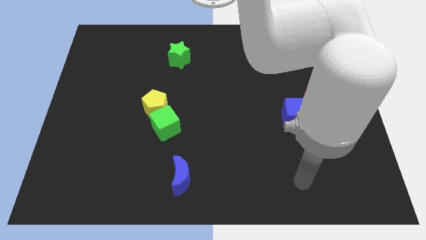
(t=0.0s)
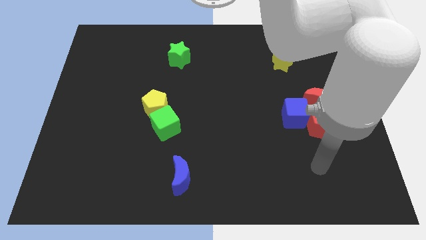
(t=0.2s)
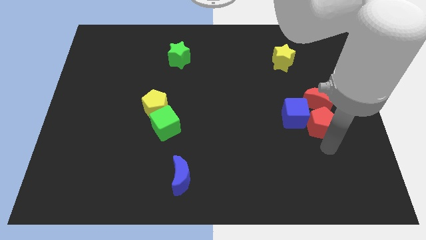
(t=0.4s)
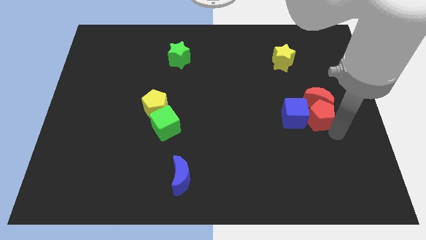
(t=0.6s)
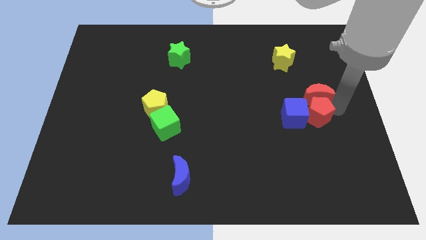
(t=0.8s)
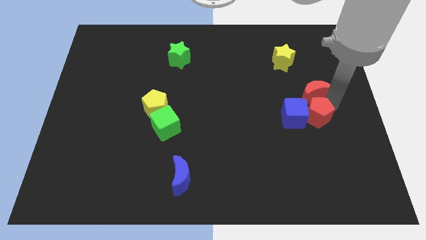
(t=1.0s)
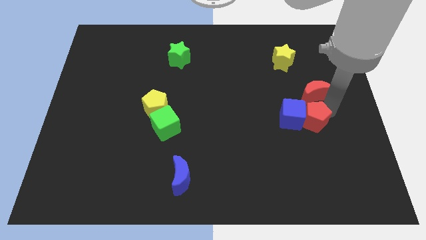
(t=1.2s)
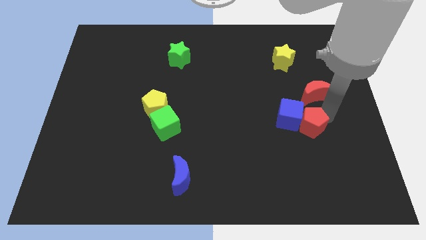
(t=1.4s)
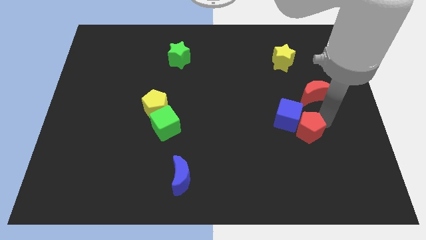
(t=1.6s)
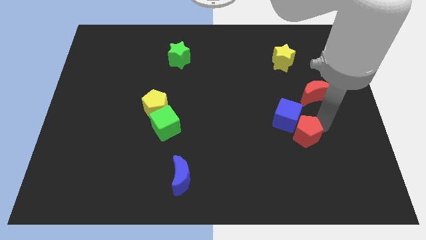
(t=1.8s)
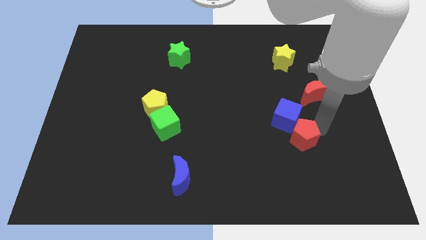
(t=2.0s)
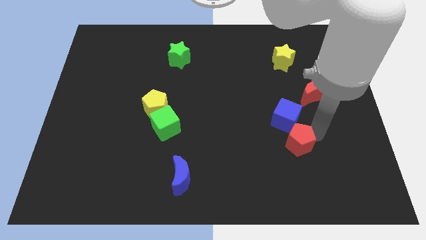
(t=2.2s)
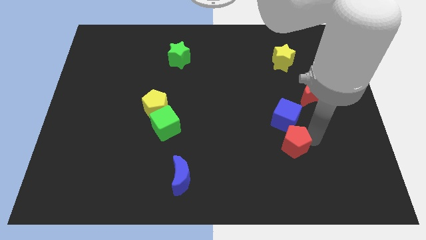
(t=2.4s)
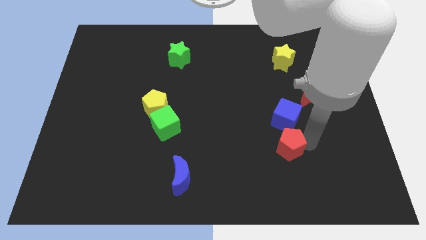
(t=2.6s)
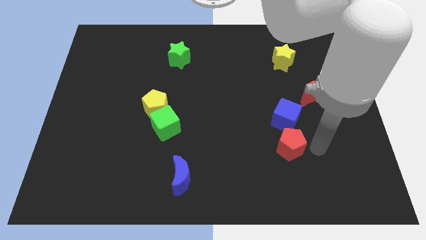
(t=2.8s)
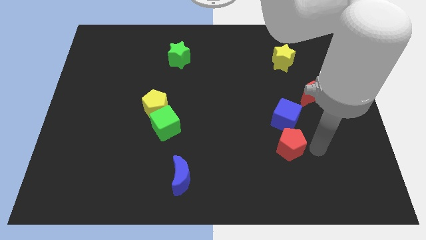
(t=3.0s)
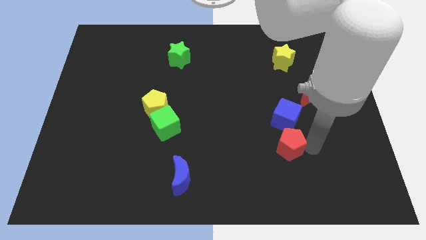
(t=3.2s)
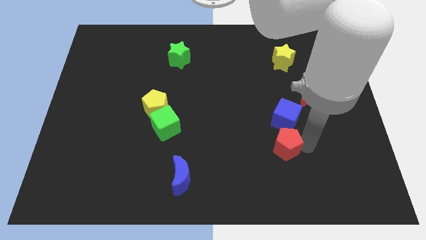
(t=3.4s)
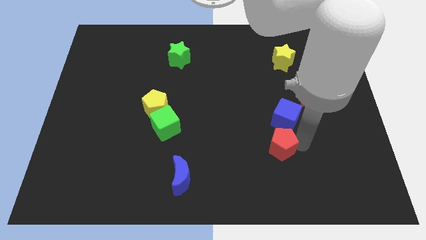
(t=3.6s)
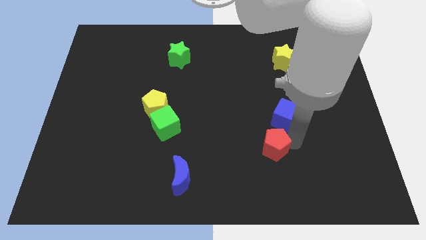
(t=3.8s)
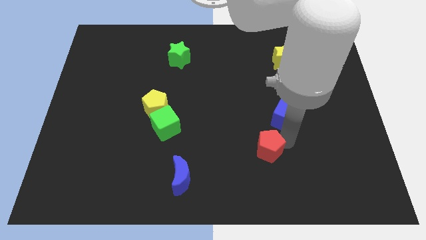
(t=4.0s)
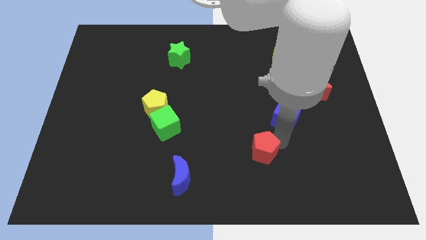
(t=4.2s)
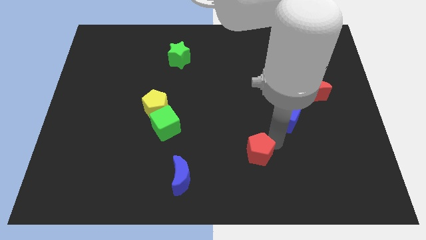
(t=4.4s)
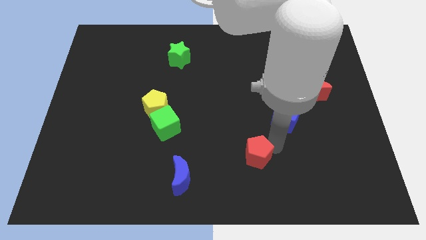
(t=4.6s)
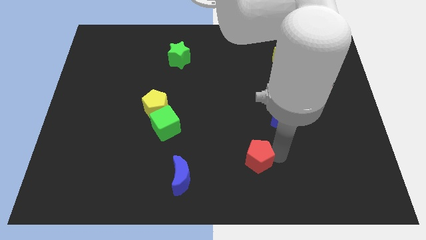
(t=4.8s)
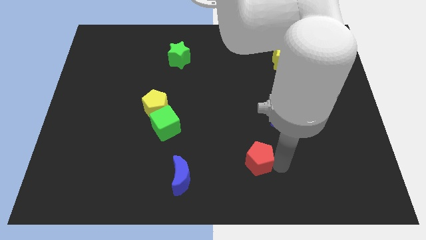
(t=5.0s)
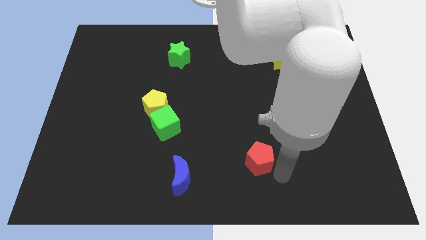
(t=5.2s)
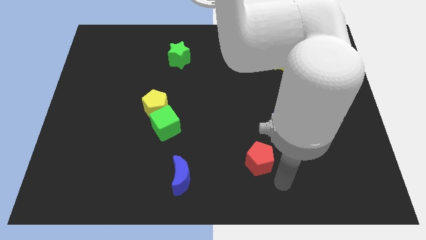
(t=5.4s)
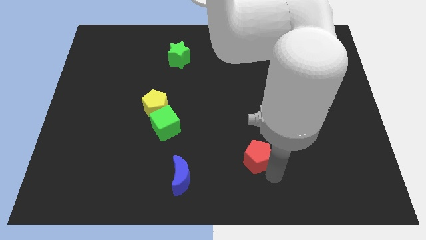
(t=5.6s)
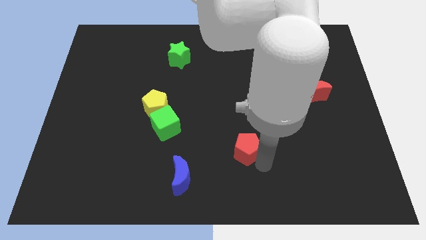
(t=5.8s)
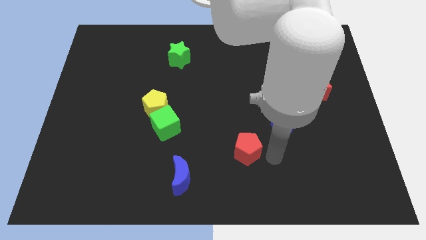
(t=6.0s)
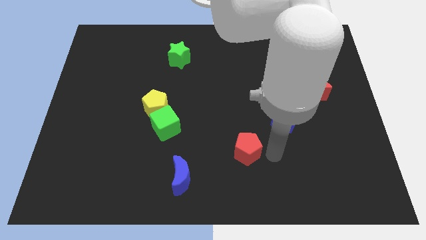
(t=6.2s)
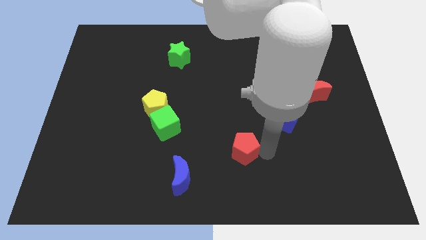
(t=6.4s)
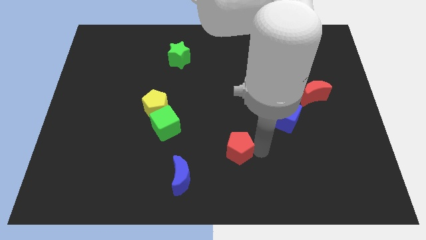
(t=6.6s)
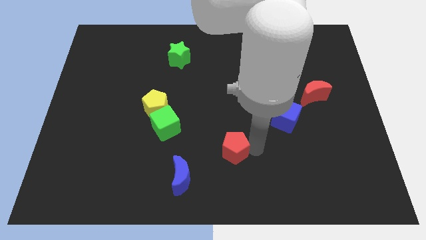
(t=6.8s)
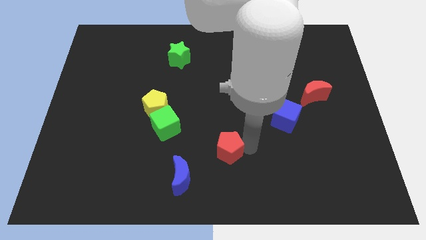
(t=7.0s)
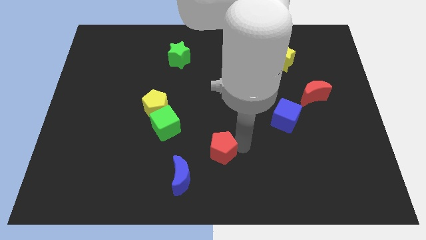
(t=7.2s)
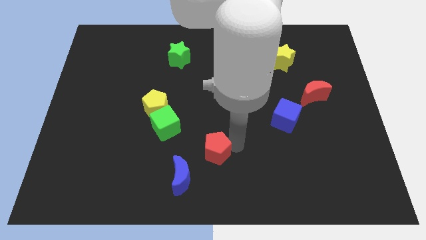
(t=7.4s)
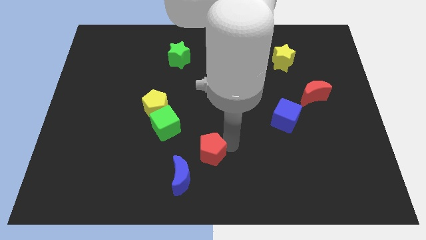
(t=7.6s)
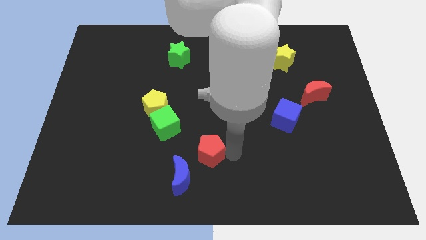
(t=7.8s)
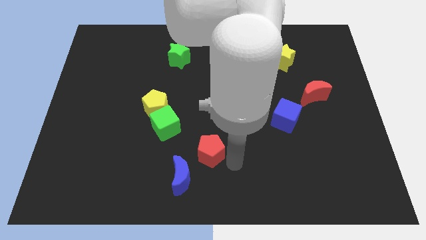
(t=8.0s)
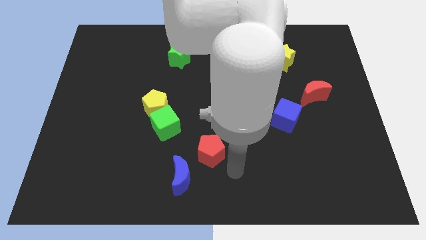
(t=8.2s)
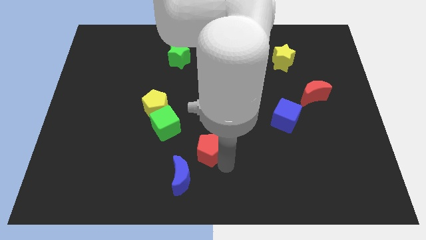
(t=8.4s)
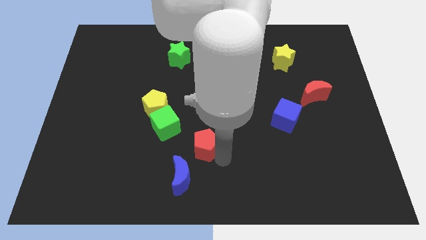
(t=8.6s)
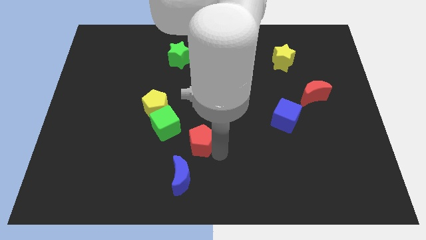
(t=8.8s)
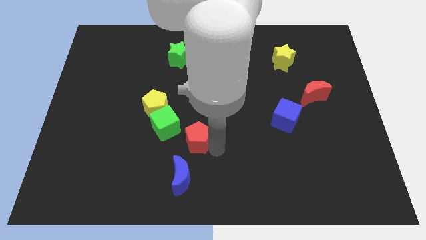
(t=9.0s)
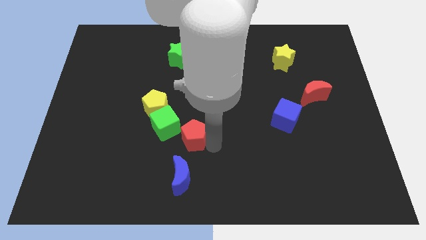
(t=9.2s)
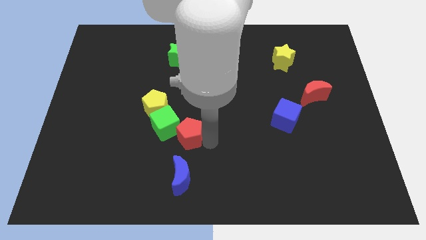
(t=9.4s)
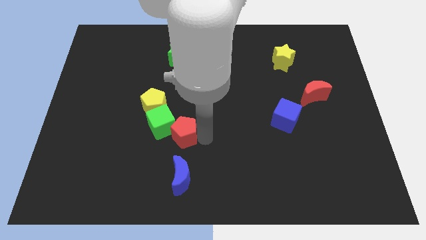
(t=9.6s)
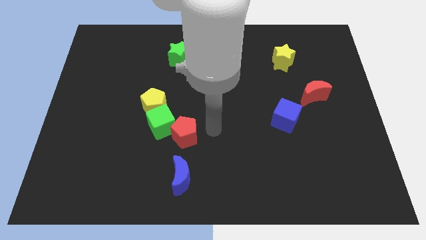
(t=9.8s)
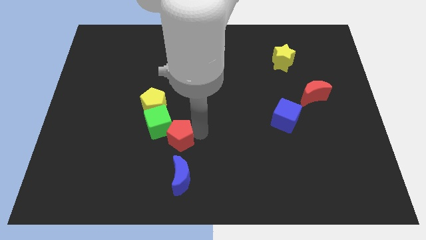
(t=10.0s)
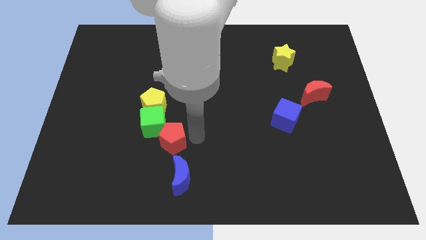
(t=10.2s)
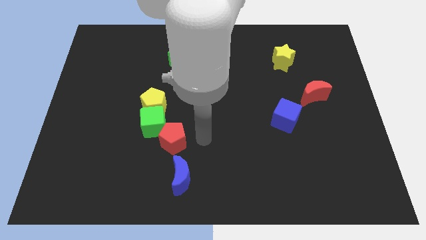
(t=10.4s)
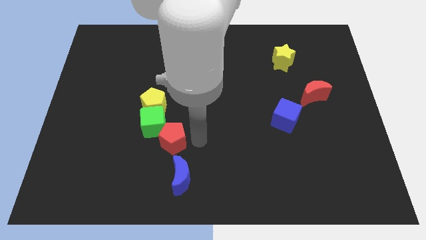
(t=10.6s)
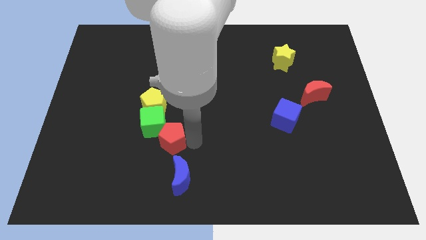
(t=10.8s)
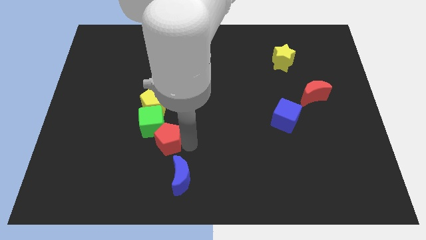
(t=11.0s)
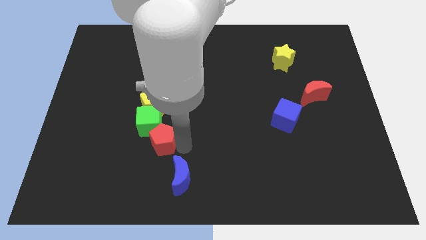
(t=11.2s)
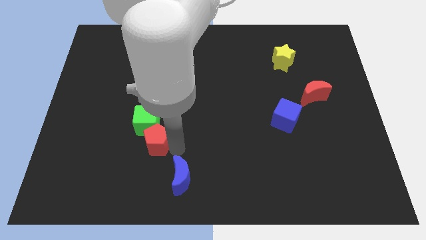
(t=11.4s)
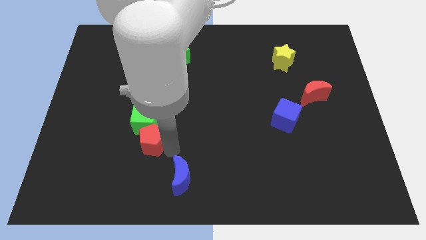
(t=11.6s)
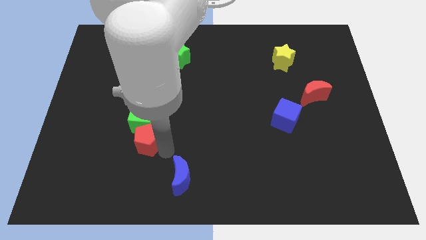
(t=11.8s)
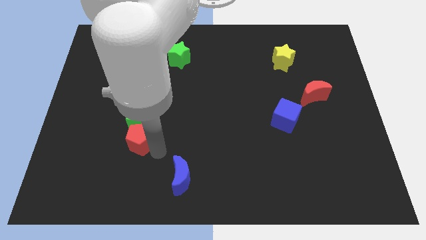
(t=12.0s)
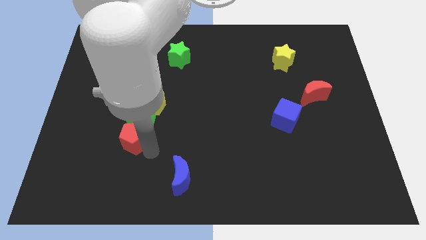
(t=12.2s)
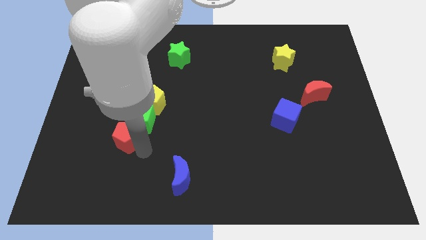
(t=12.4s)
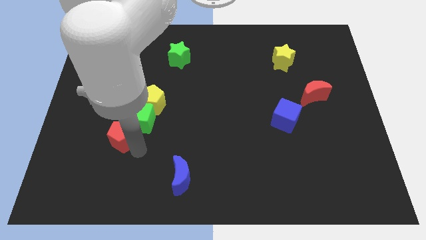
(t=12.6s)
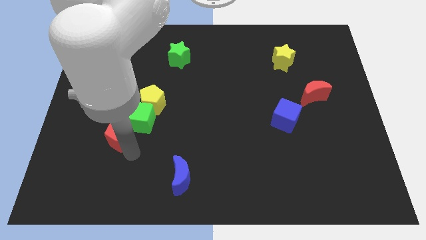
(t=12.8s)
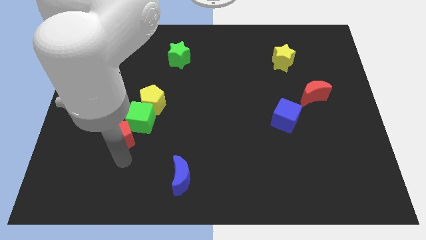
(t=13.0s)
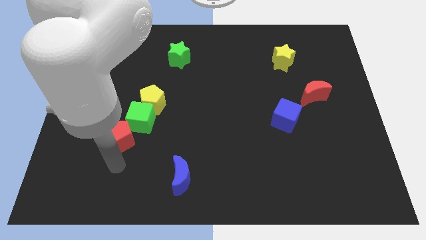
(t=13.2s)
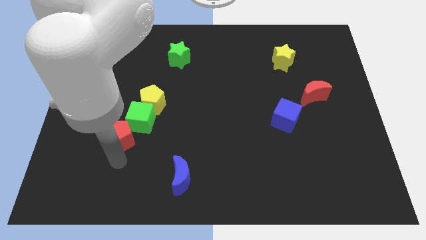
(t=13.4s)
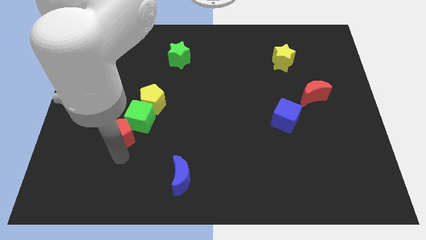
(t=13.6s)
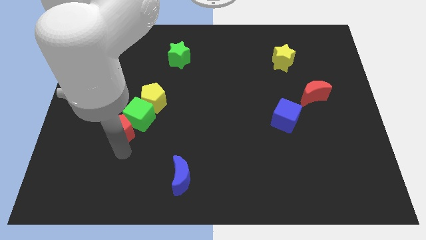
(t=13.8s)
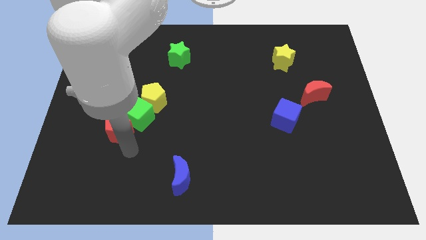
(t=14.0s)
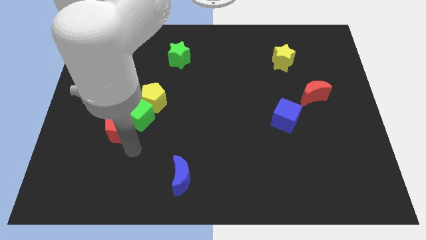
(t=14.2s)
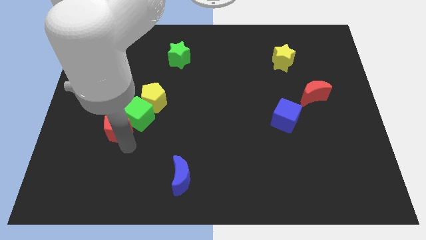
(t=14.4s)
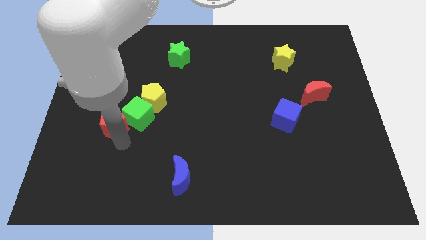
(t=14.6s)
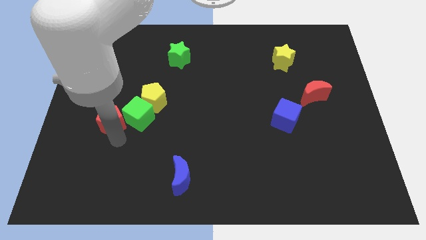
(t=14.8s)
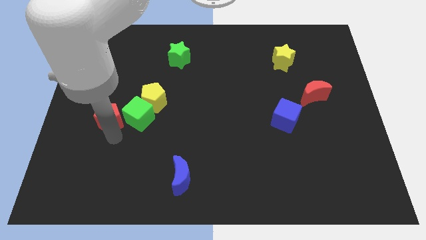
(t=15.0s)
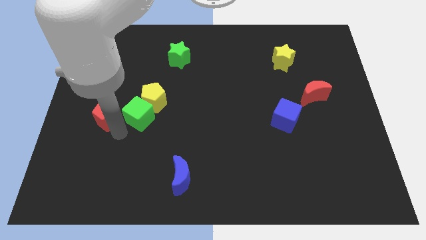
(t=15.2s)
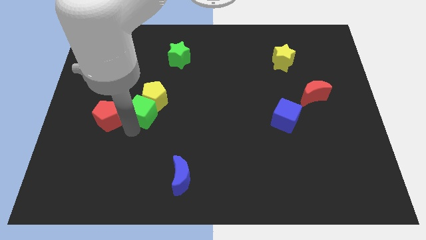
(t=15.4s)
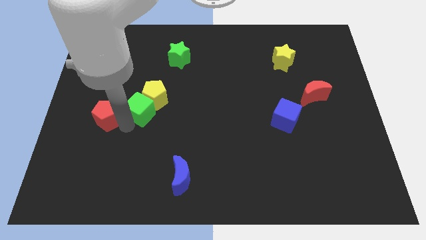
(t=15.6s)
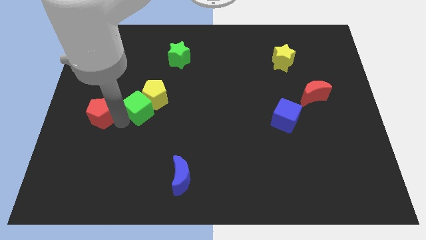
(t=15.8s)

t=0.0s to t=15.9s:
put the red pentagon to the left side
